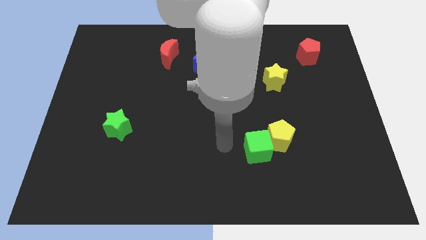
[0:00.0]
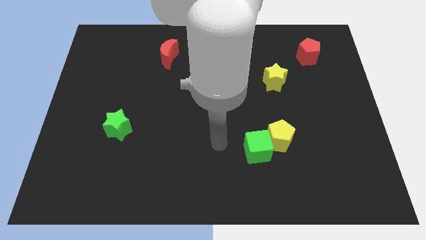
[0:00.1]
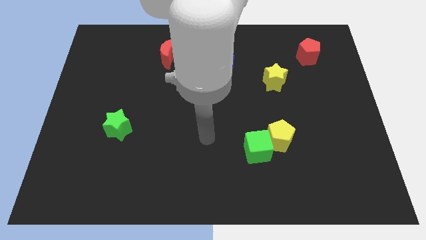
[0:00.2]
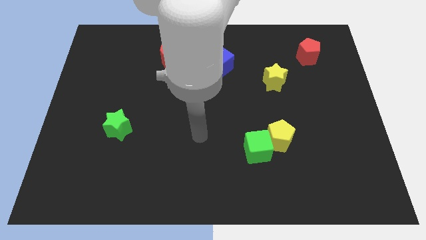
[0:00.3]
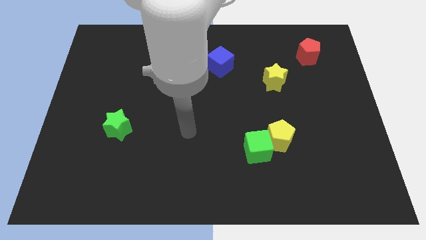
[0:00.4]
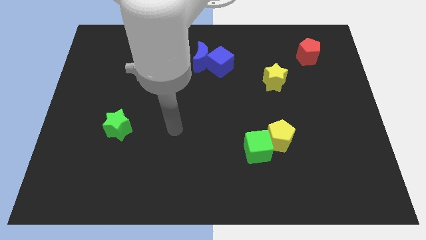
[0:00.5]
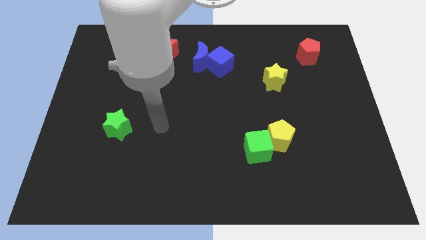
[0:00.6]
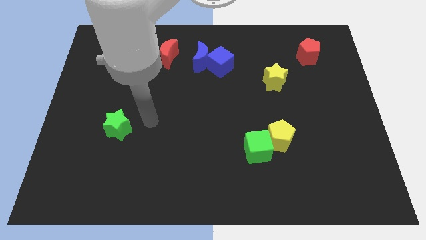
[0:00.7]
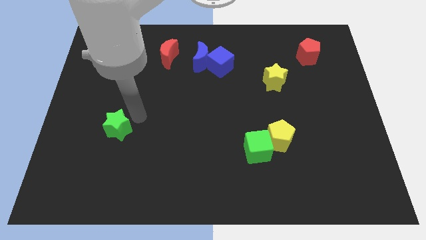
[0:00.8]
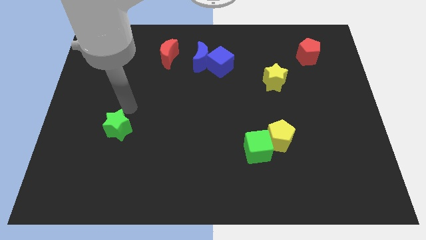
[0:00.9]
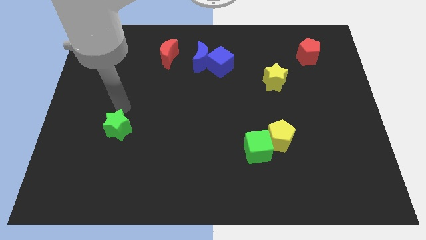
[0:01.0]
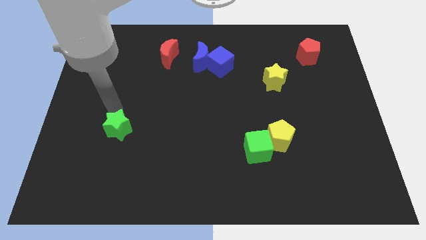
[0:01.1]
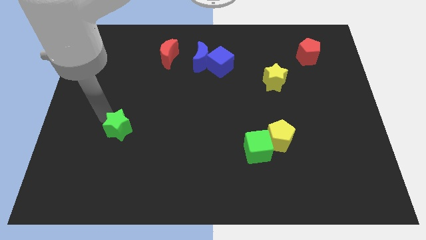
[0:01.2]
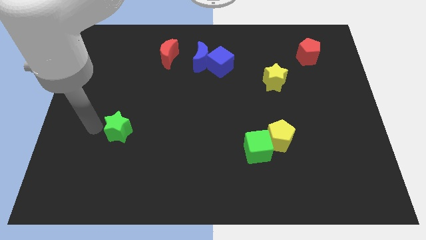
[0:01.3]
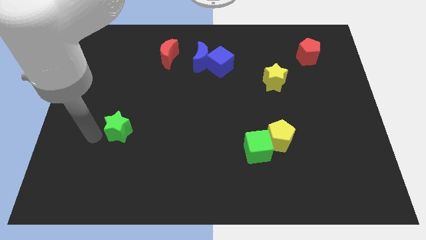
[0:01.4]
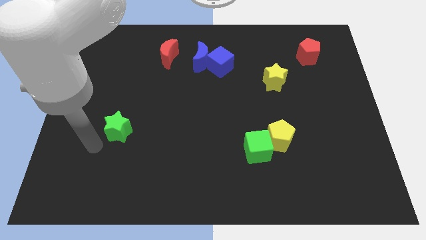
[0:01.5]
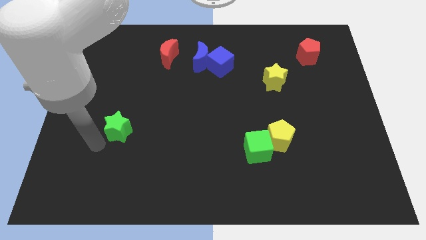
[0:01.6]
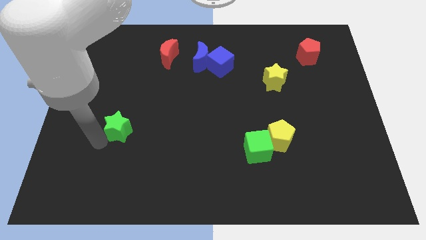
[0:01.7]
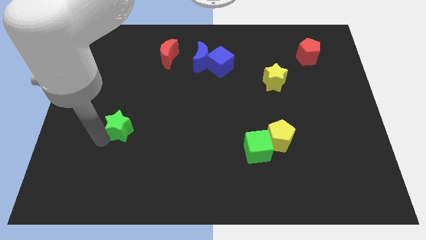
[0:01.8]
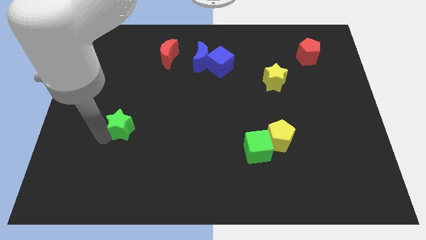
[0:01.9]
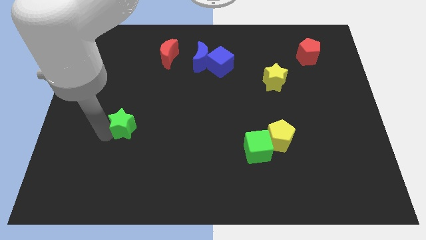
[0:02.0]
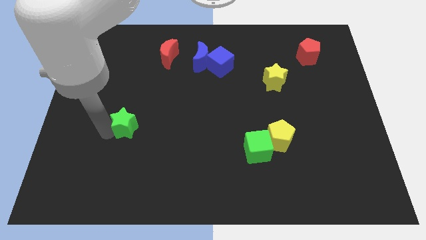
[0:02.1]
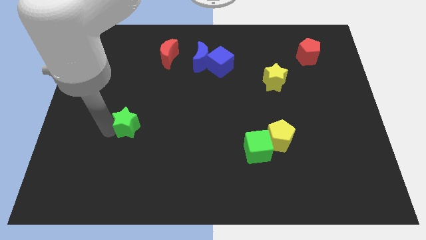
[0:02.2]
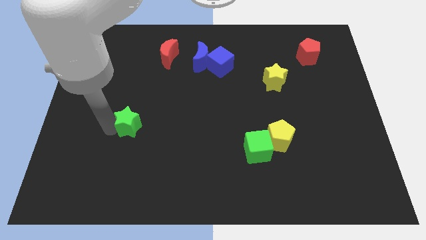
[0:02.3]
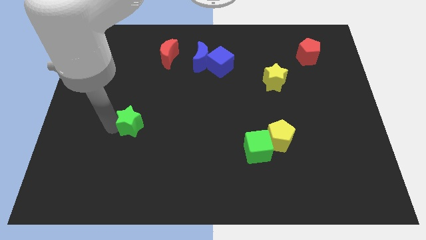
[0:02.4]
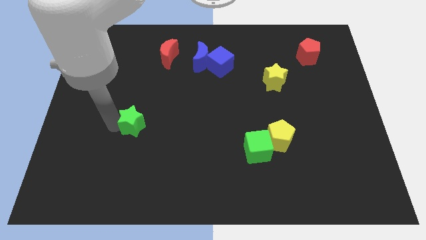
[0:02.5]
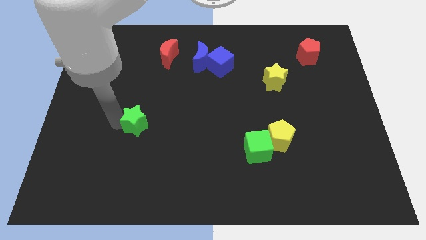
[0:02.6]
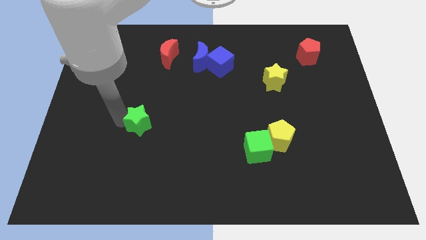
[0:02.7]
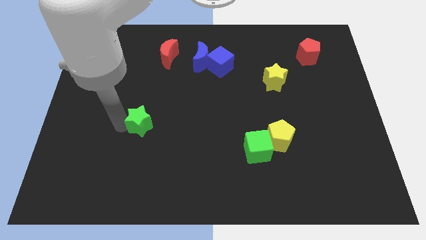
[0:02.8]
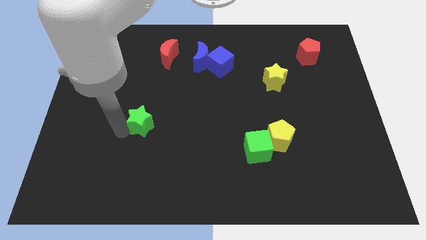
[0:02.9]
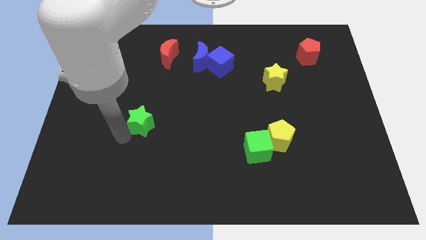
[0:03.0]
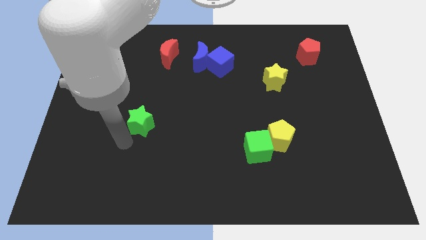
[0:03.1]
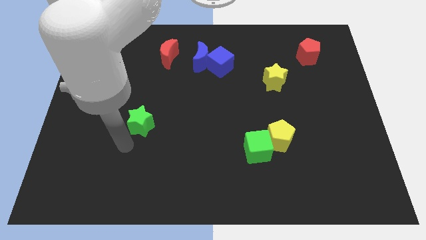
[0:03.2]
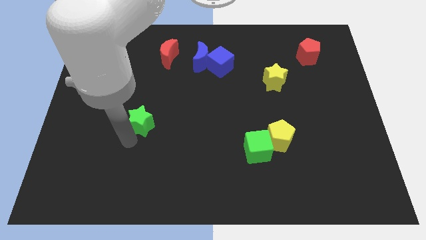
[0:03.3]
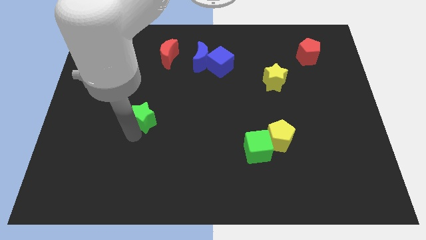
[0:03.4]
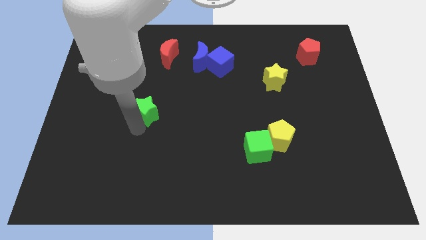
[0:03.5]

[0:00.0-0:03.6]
slide the green star a little upwards and to the right

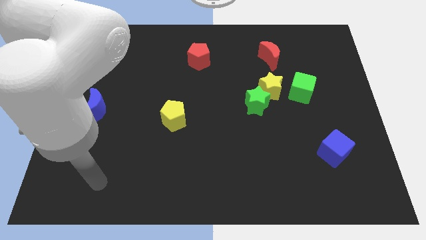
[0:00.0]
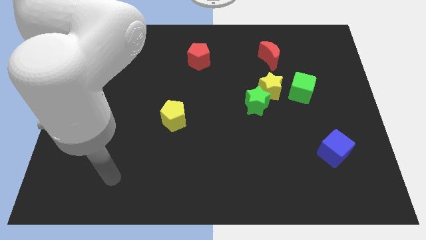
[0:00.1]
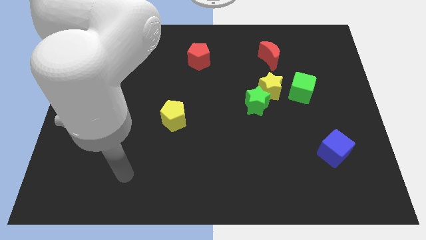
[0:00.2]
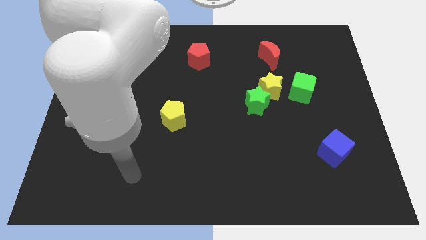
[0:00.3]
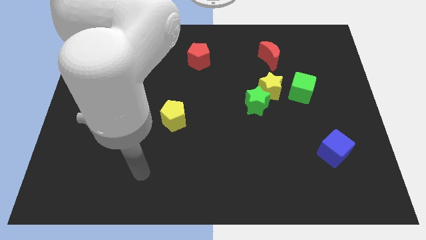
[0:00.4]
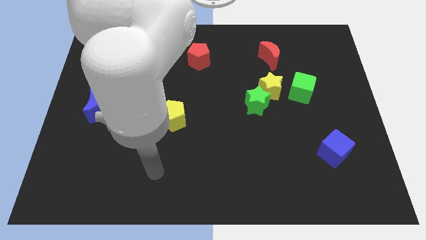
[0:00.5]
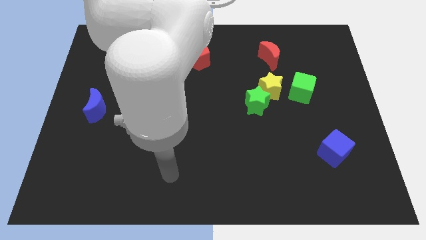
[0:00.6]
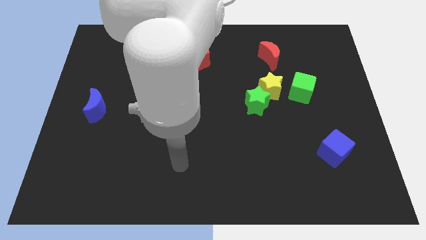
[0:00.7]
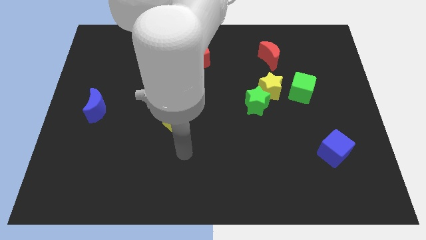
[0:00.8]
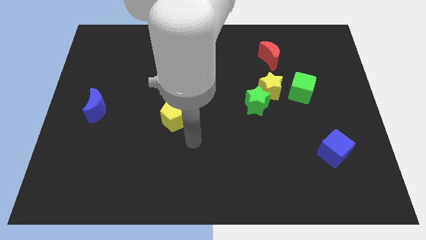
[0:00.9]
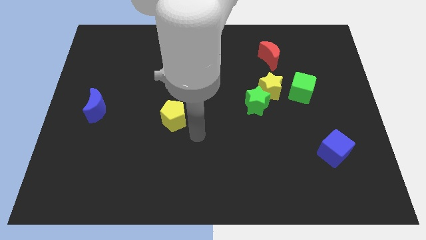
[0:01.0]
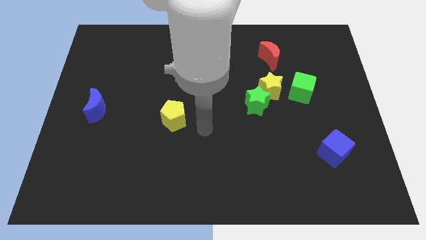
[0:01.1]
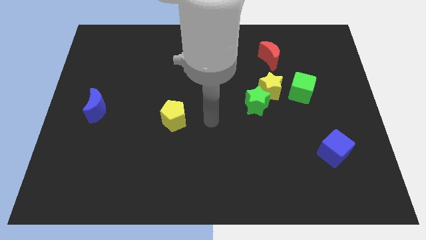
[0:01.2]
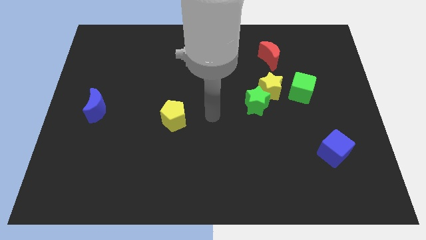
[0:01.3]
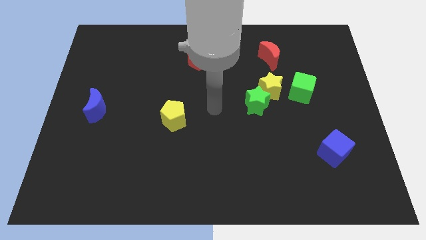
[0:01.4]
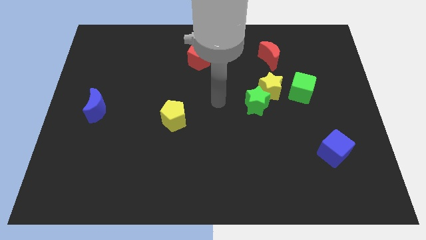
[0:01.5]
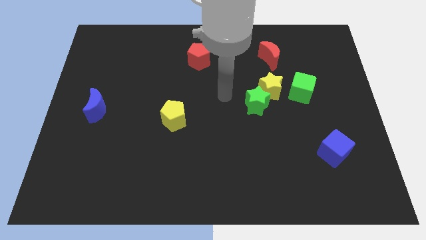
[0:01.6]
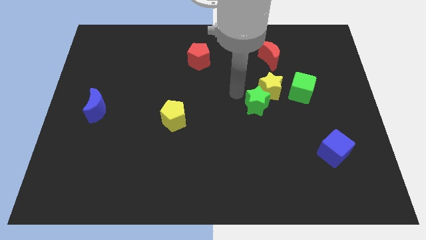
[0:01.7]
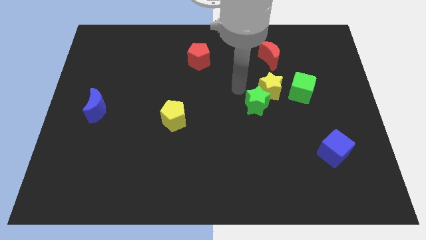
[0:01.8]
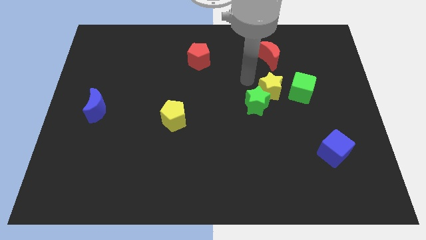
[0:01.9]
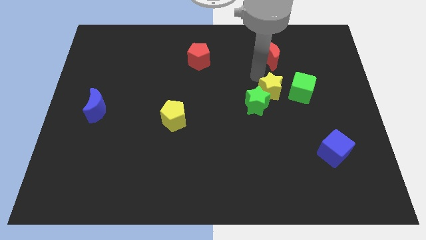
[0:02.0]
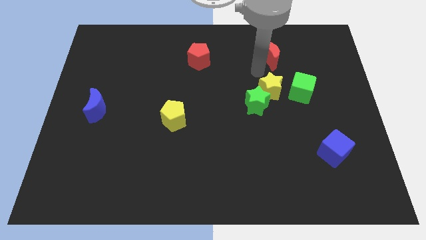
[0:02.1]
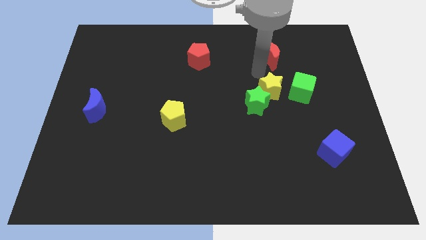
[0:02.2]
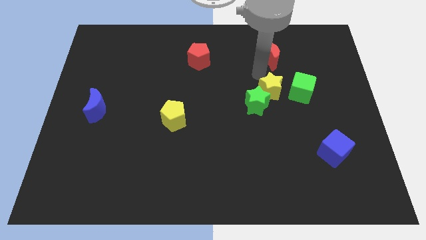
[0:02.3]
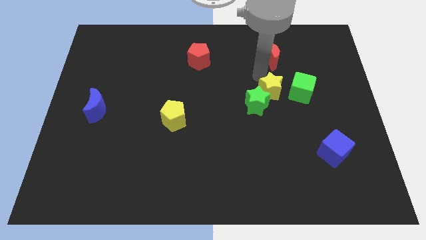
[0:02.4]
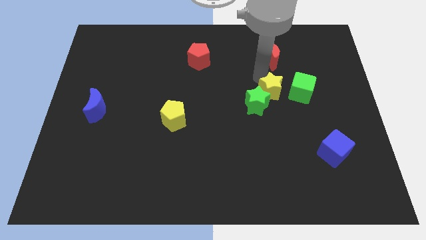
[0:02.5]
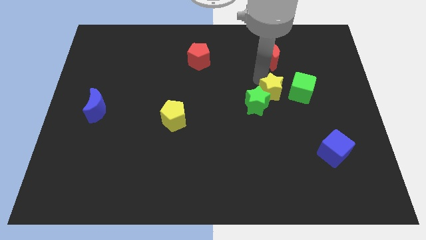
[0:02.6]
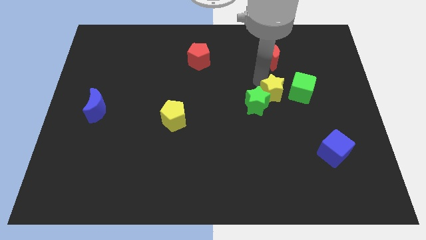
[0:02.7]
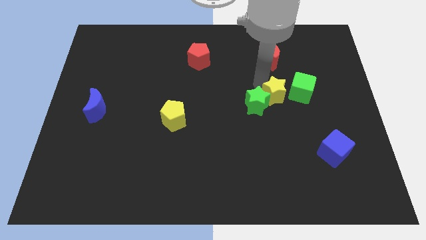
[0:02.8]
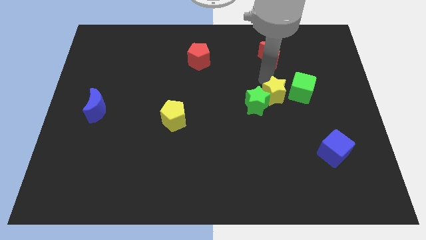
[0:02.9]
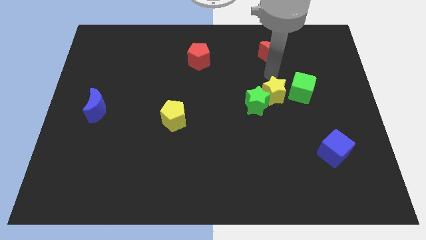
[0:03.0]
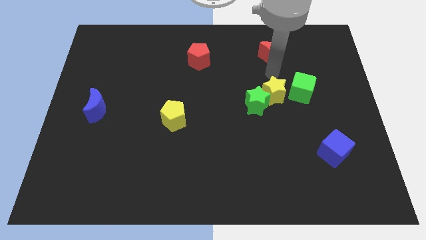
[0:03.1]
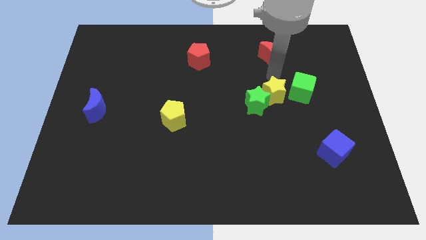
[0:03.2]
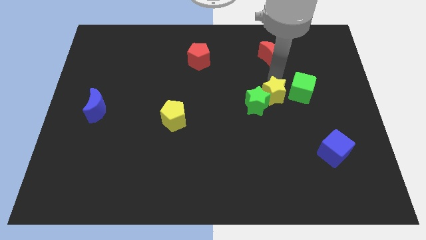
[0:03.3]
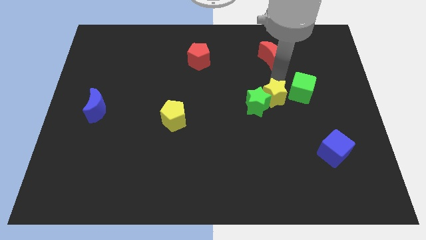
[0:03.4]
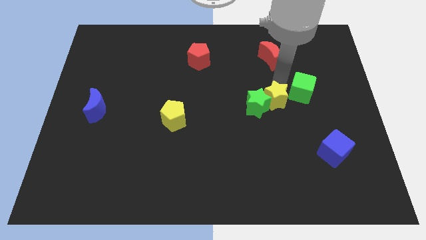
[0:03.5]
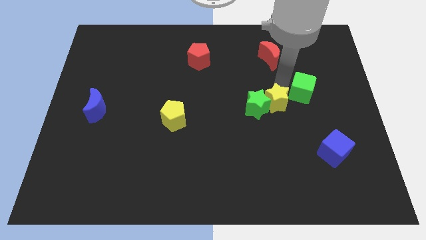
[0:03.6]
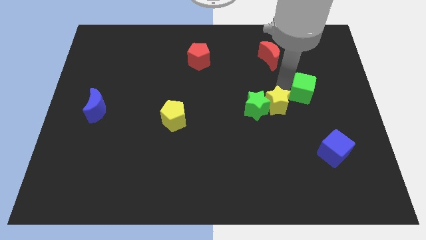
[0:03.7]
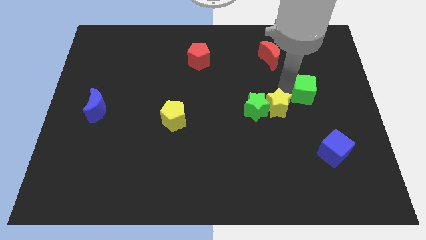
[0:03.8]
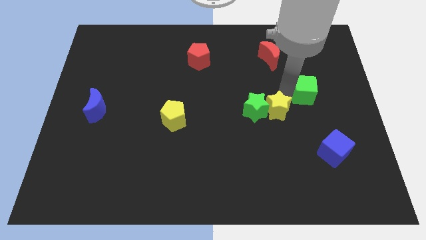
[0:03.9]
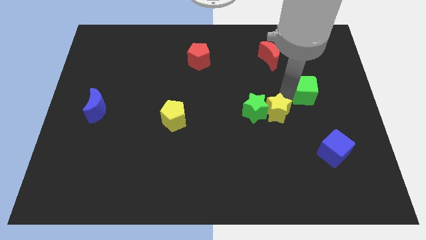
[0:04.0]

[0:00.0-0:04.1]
move the yellow star somewhat down
